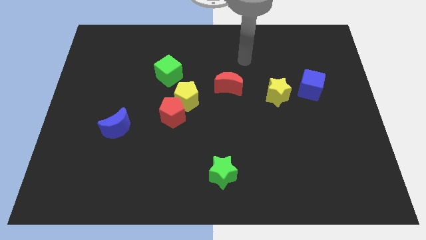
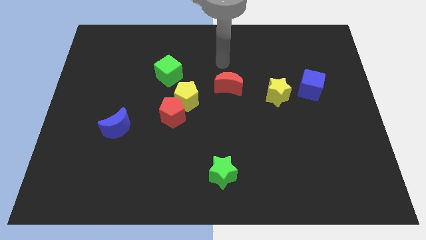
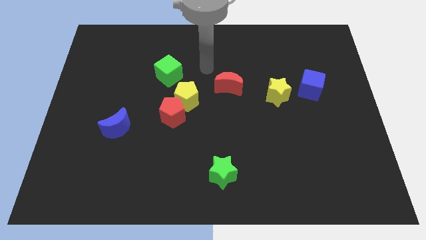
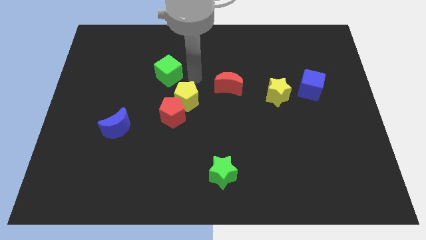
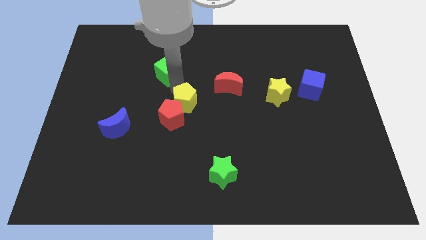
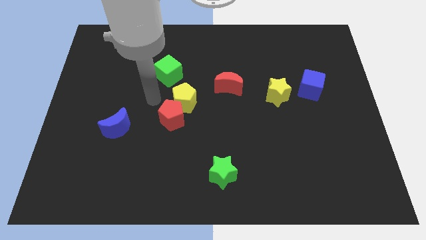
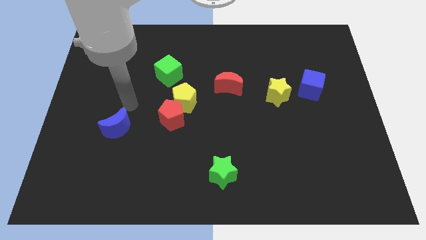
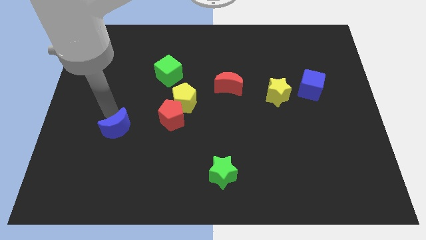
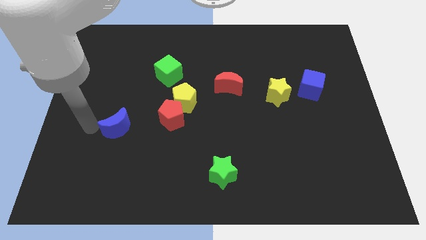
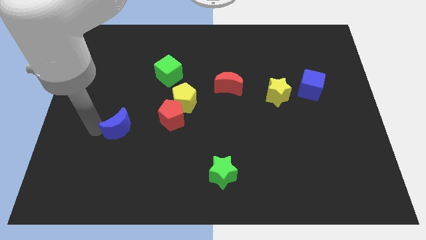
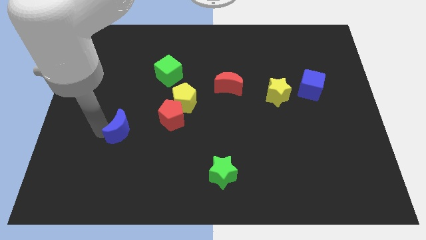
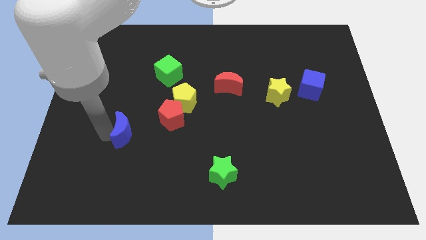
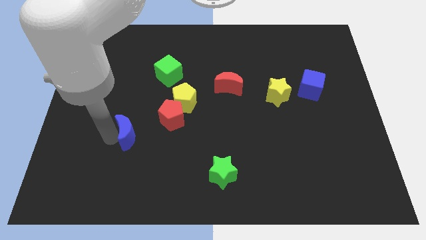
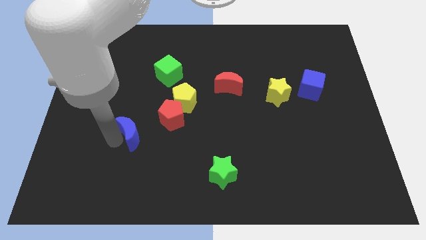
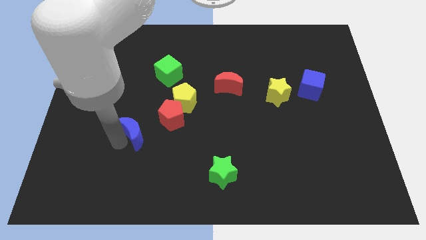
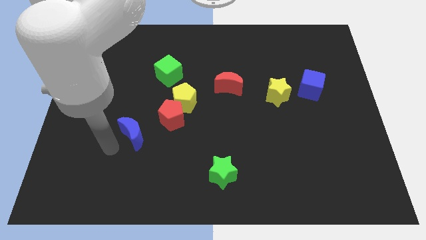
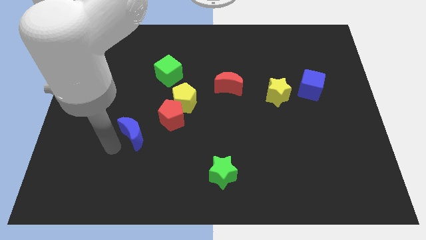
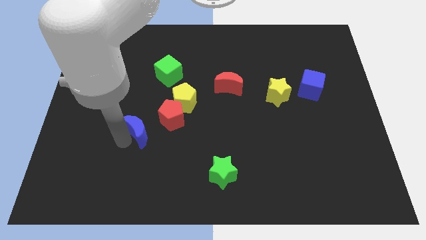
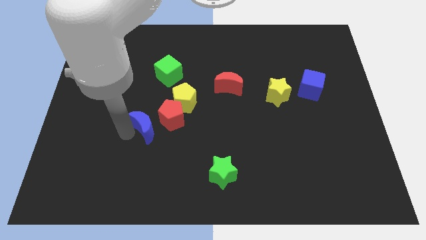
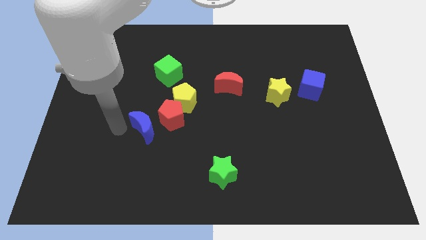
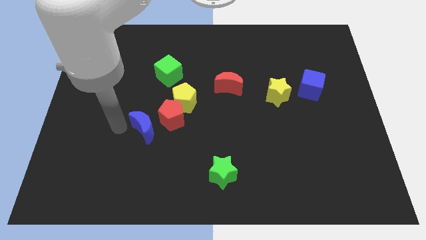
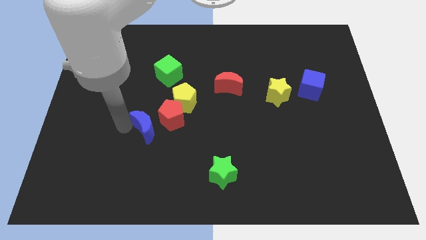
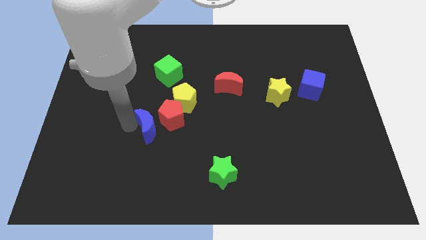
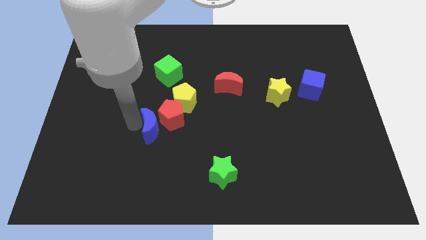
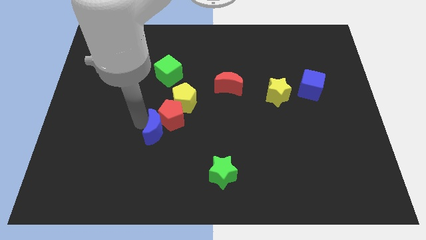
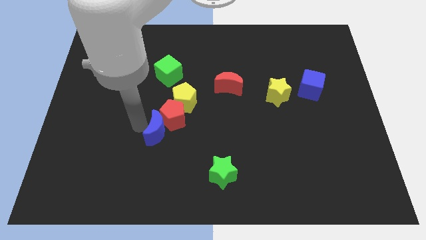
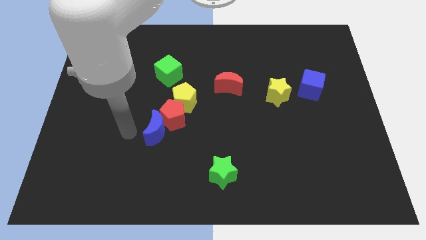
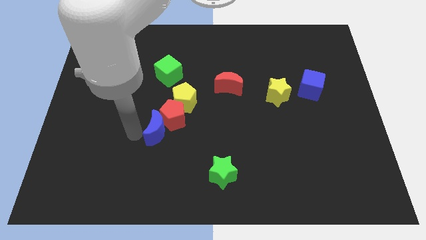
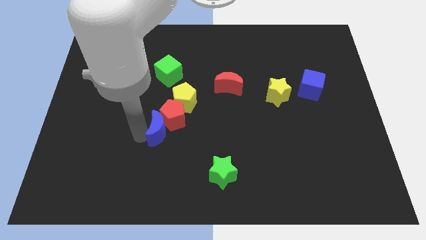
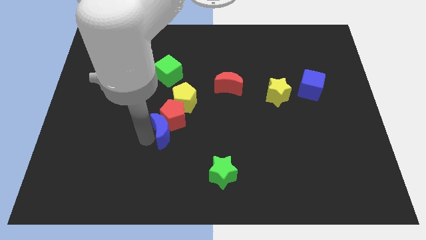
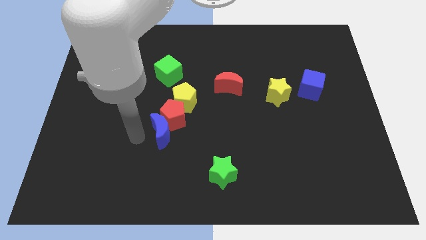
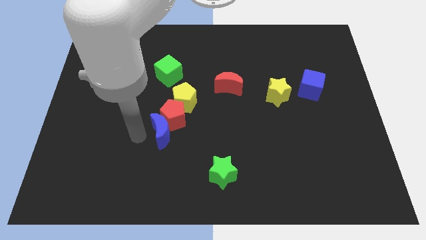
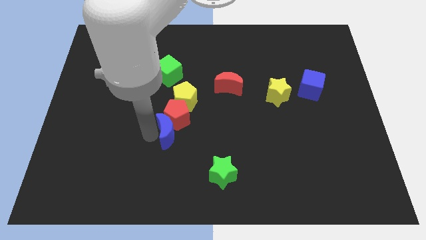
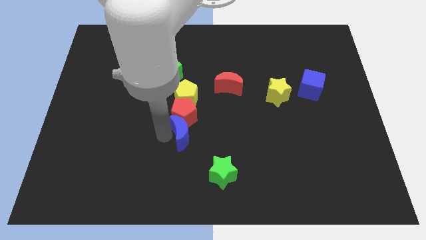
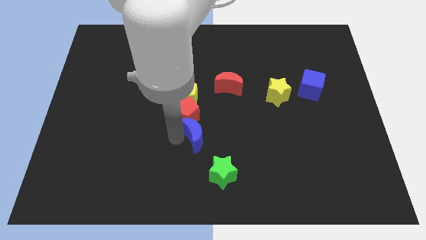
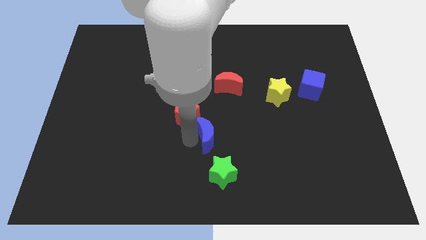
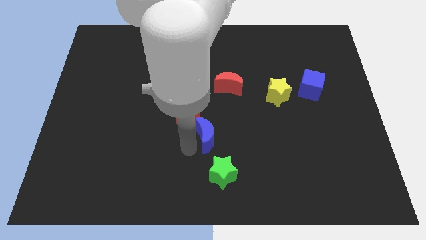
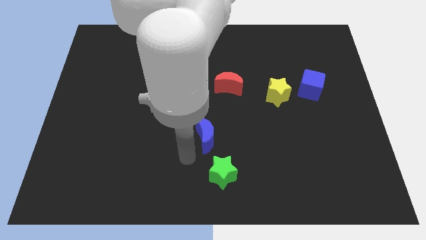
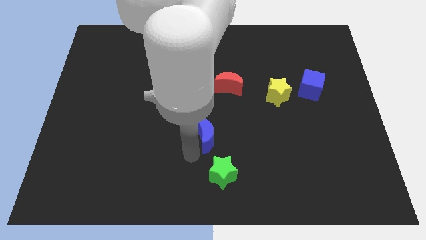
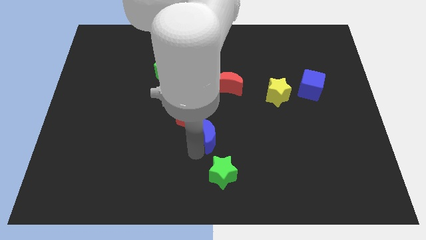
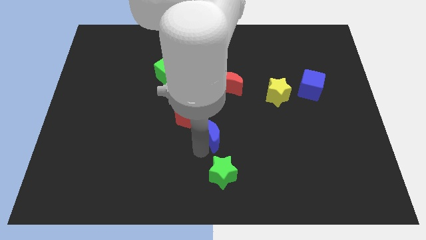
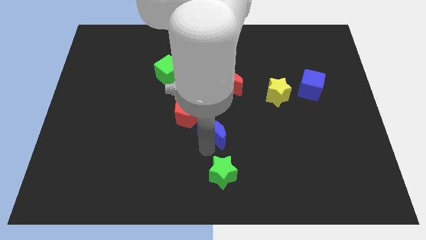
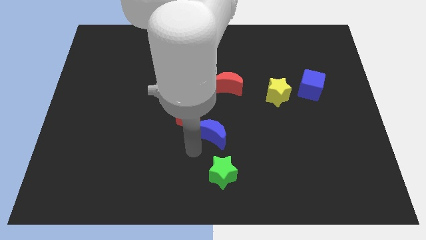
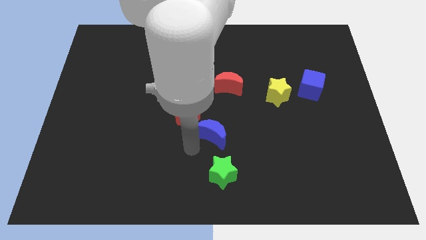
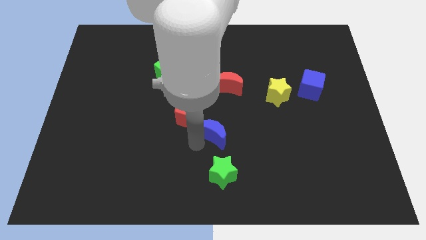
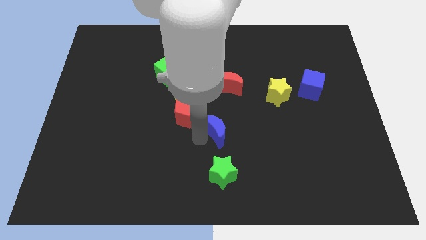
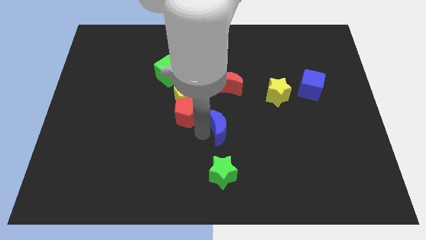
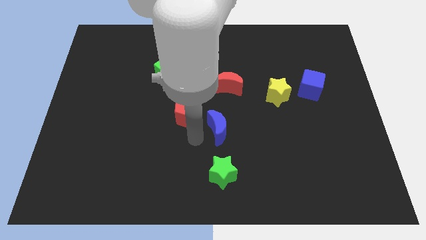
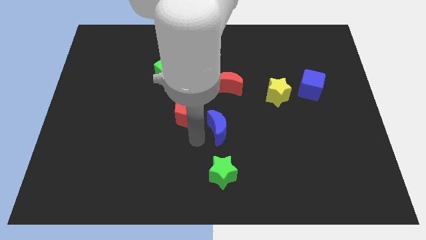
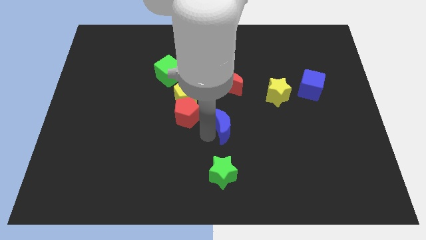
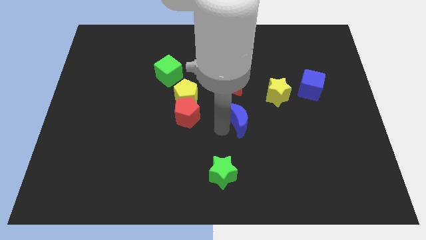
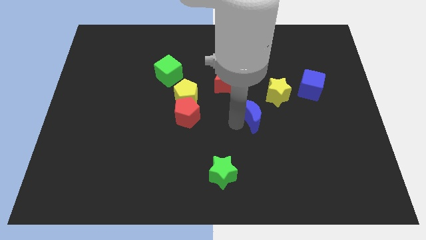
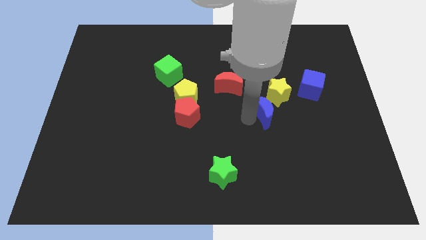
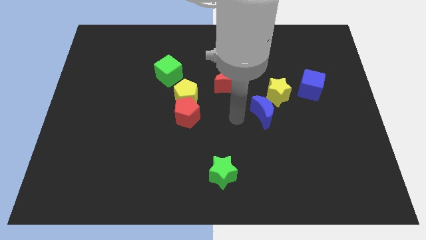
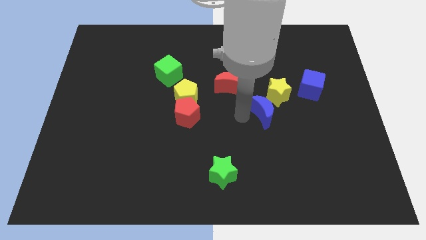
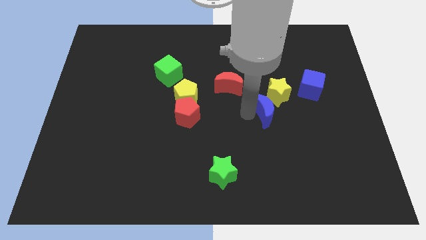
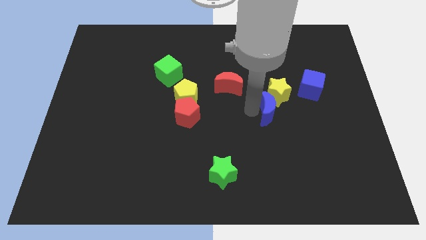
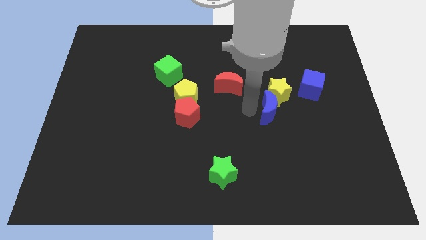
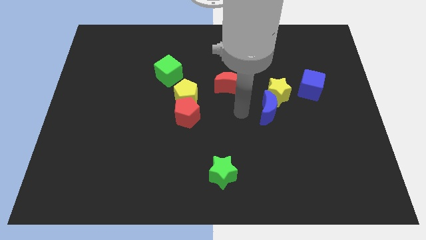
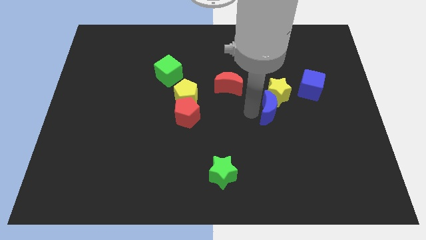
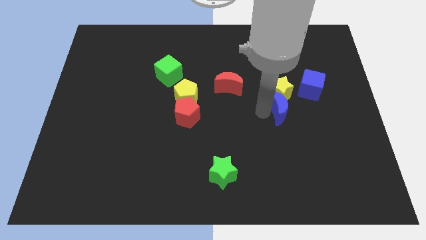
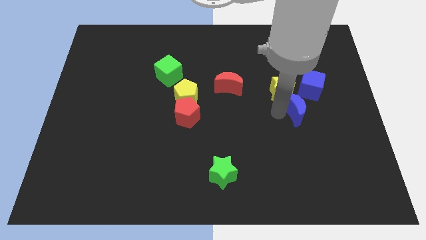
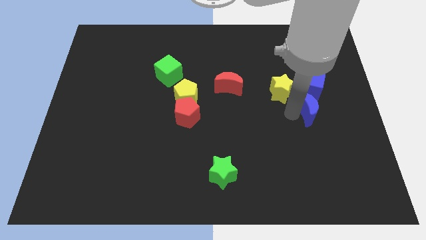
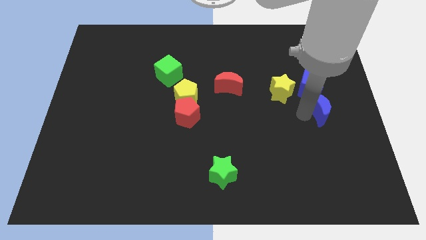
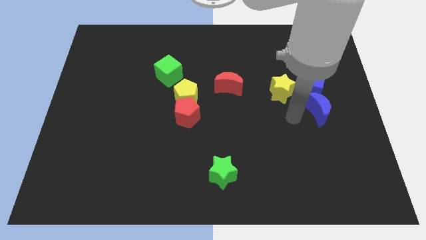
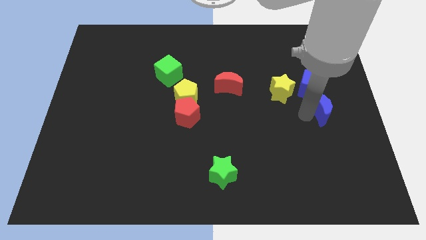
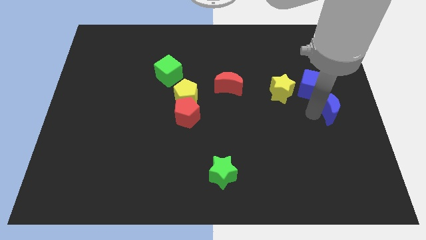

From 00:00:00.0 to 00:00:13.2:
put the blue moon to the right side

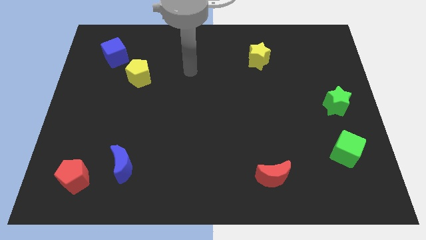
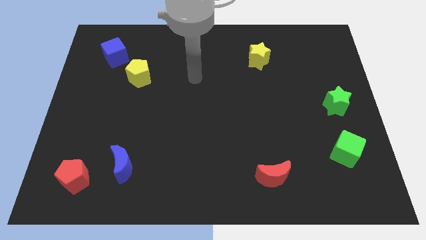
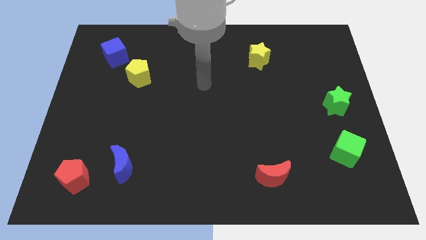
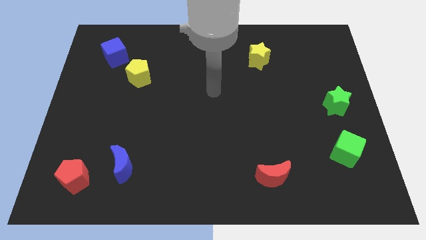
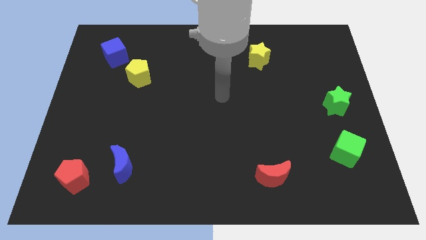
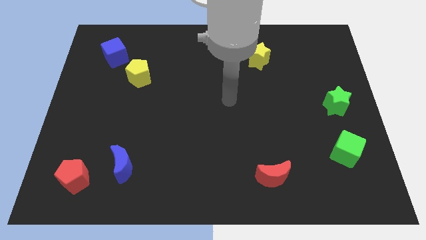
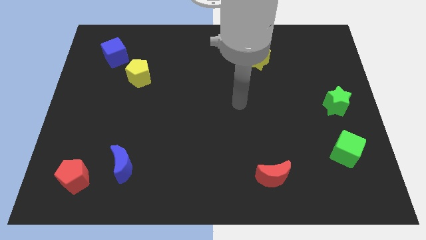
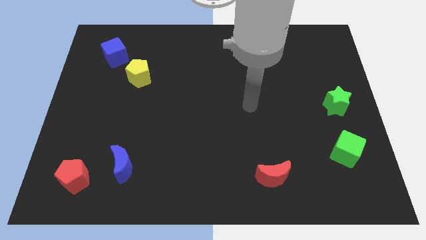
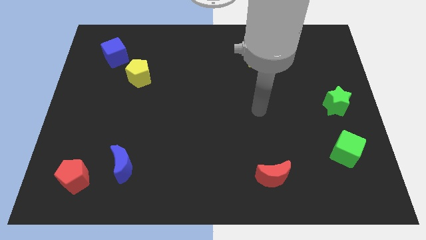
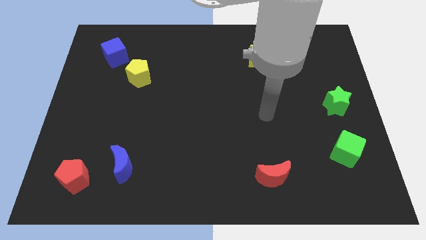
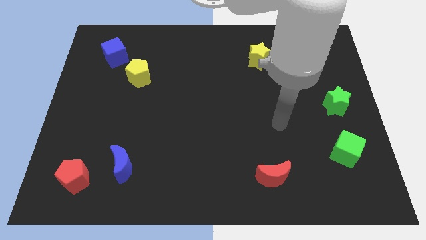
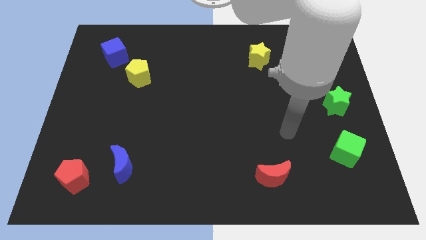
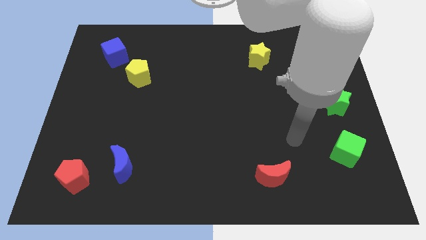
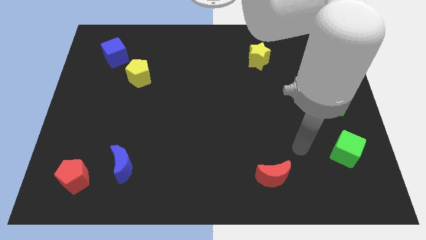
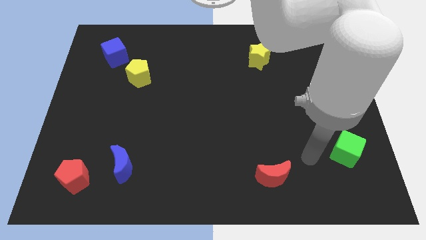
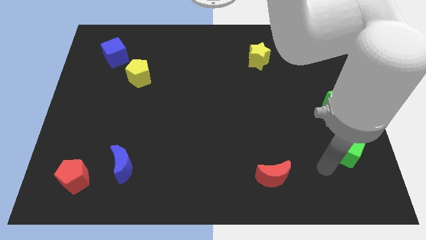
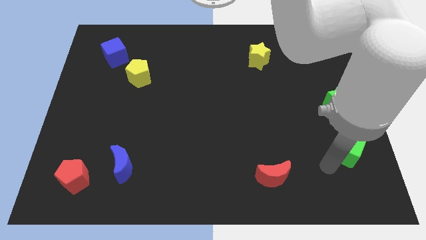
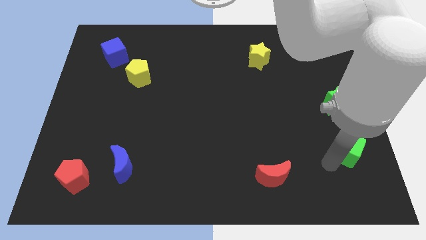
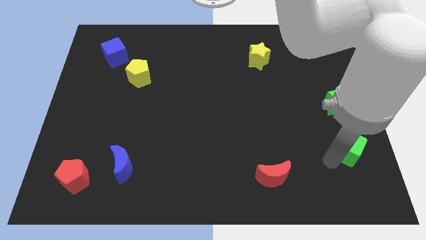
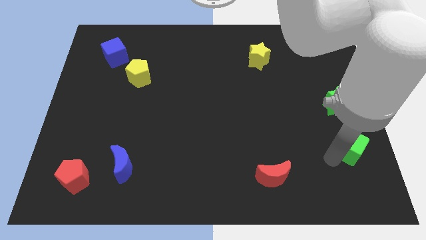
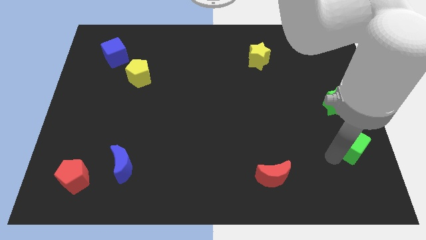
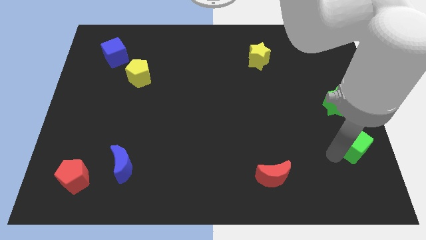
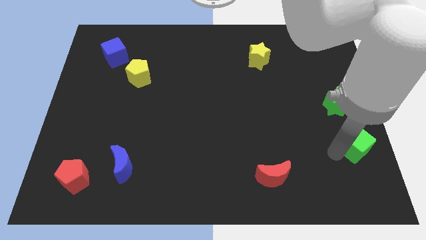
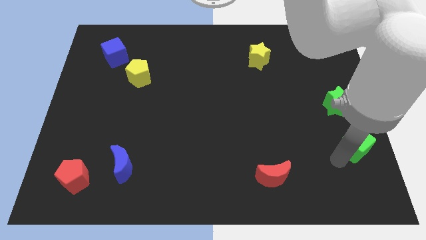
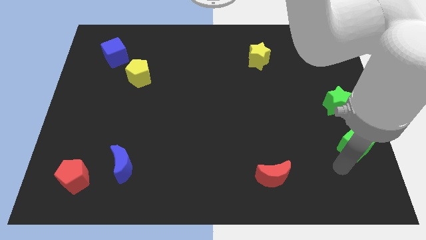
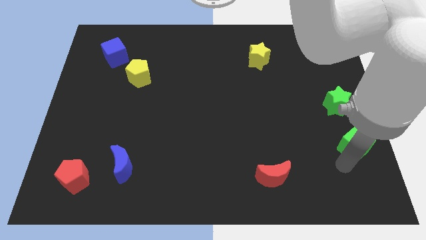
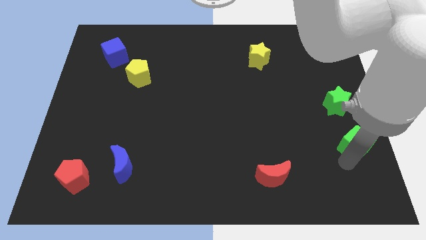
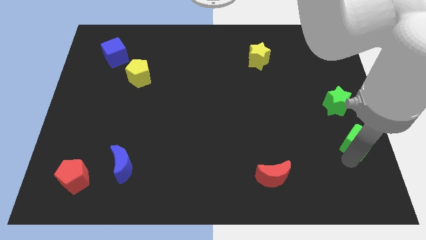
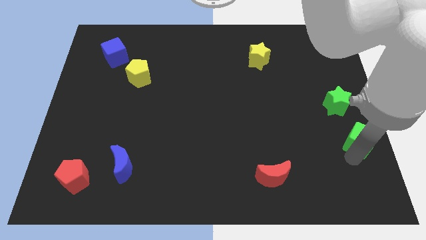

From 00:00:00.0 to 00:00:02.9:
put the green cube to the right side of the board
